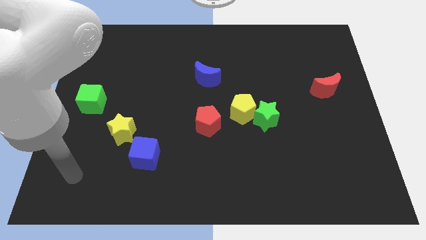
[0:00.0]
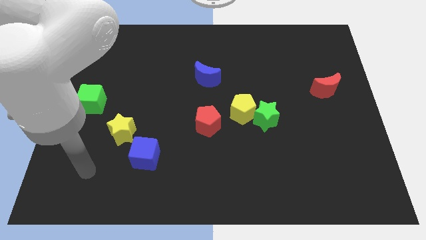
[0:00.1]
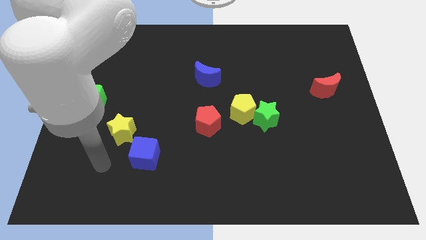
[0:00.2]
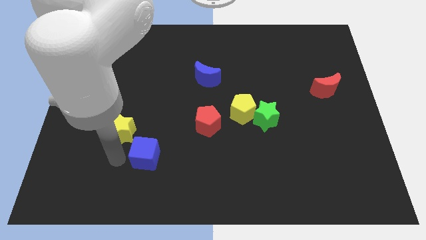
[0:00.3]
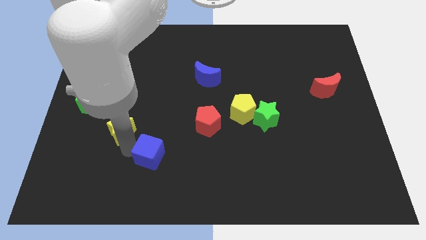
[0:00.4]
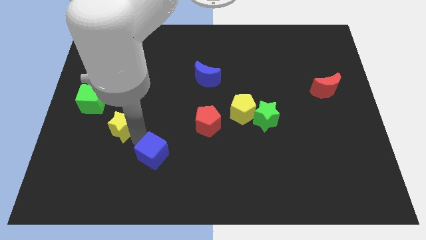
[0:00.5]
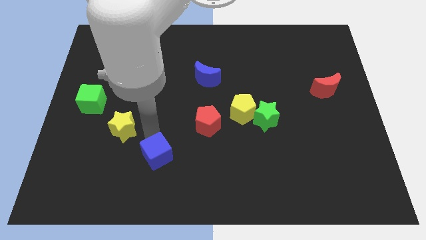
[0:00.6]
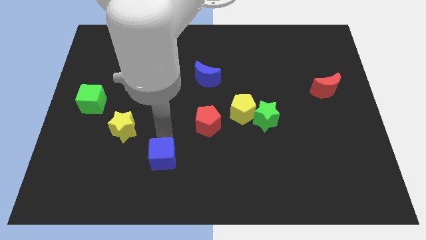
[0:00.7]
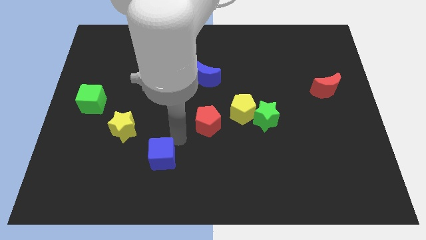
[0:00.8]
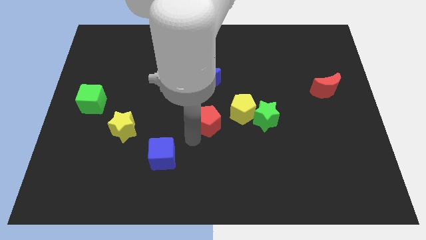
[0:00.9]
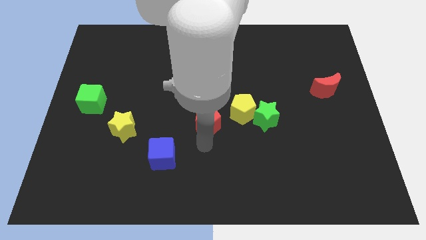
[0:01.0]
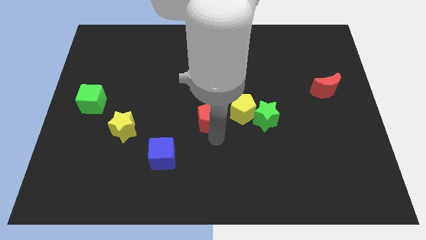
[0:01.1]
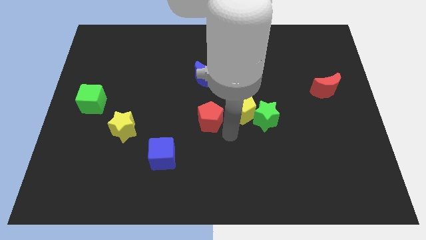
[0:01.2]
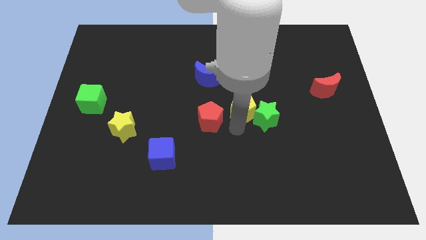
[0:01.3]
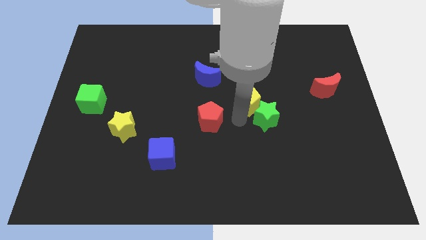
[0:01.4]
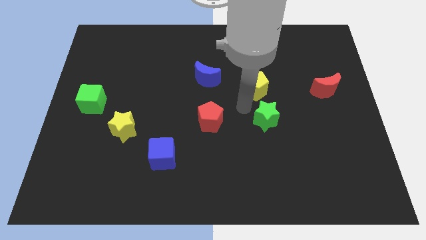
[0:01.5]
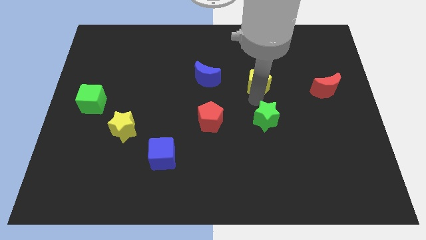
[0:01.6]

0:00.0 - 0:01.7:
separate the green star from the yellow pentagon

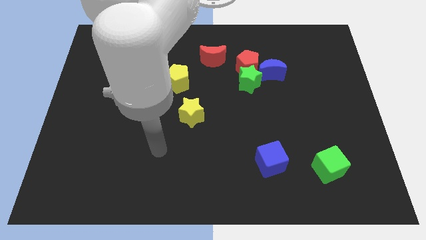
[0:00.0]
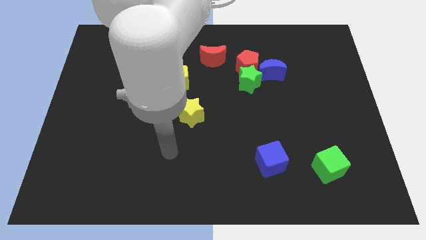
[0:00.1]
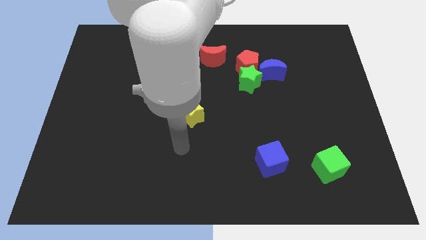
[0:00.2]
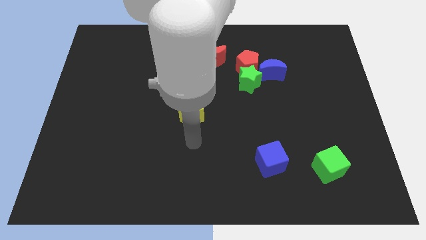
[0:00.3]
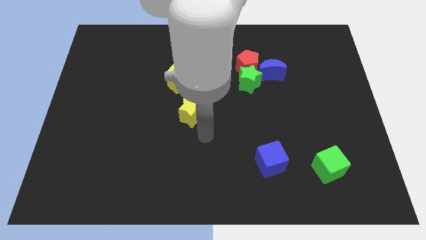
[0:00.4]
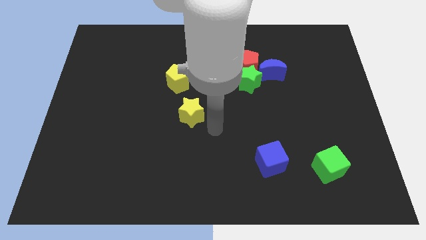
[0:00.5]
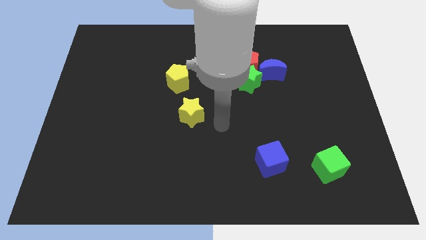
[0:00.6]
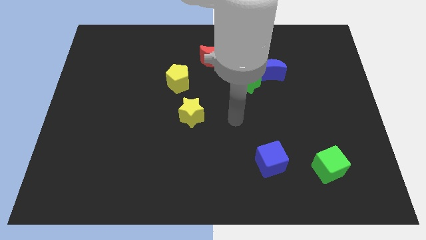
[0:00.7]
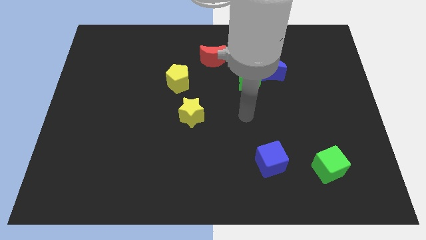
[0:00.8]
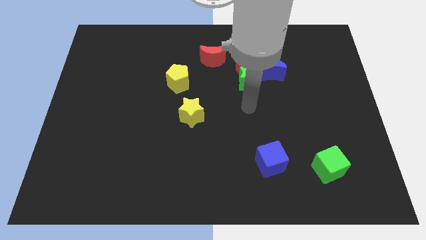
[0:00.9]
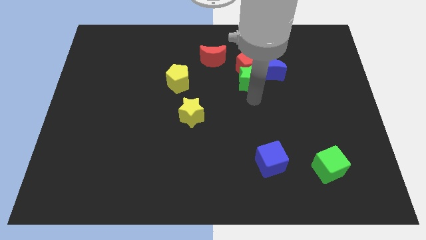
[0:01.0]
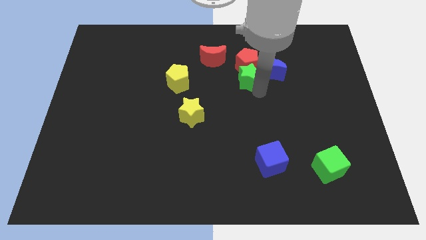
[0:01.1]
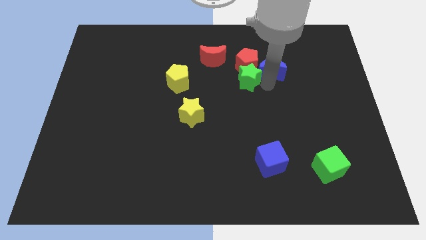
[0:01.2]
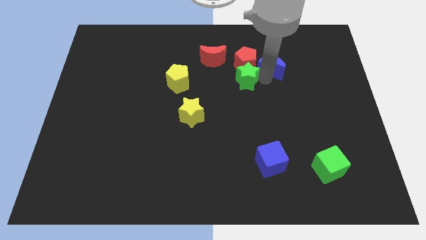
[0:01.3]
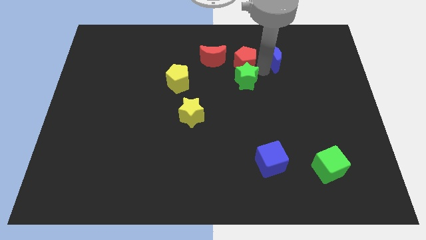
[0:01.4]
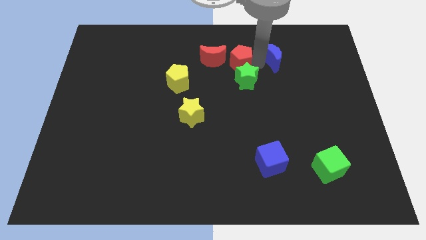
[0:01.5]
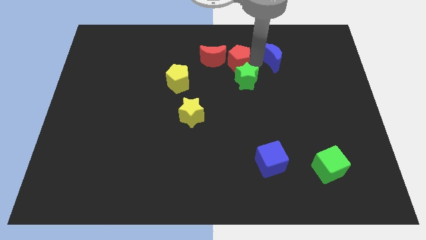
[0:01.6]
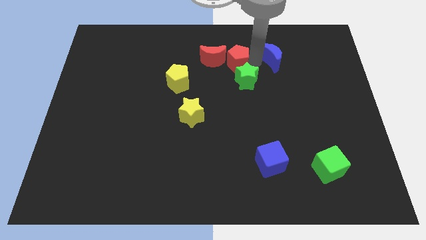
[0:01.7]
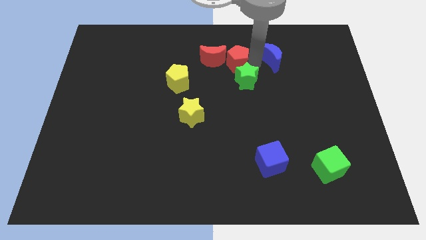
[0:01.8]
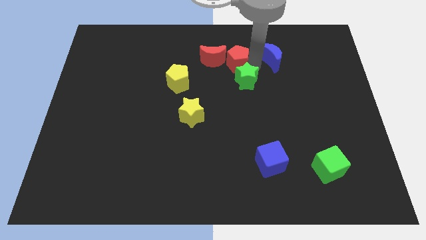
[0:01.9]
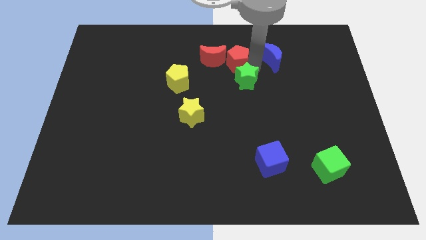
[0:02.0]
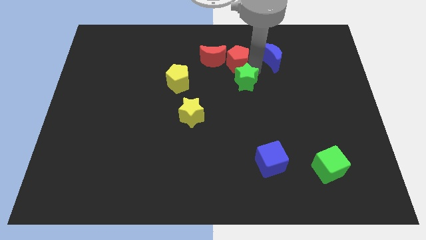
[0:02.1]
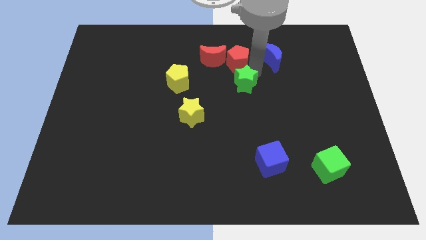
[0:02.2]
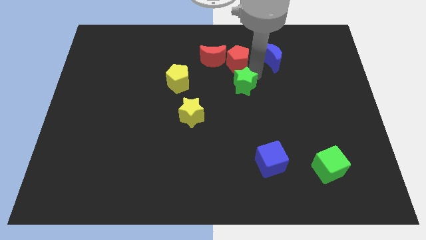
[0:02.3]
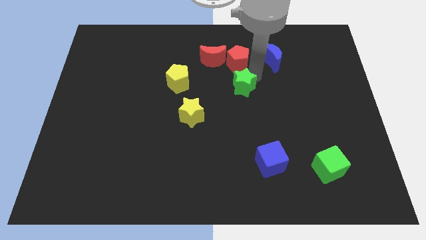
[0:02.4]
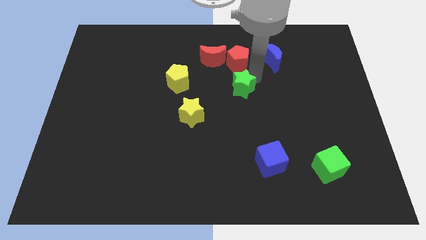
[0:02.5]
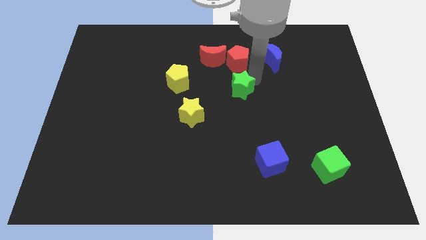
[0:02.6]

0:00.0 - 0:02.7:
move the green star away from the red pentagon and blue moon

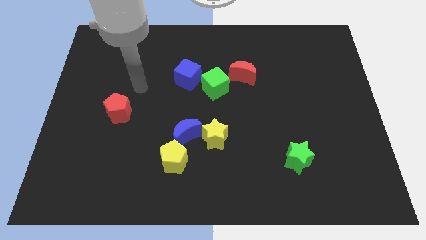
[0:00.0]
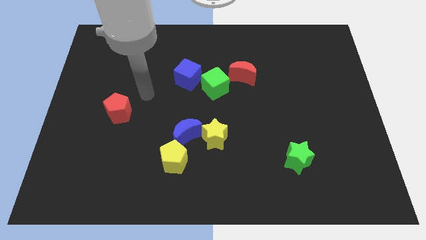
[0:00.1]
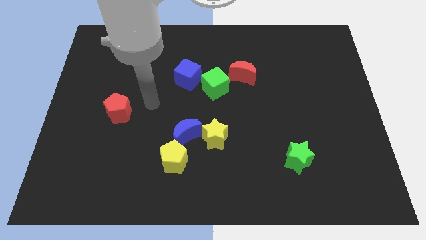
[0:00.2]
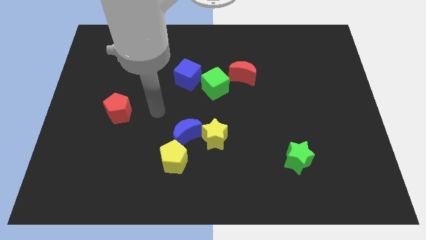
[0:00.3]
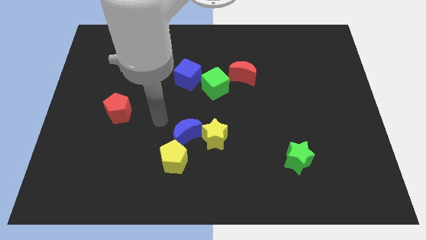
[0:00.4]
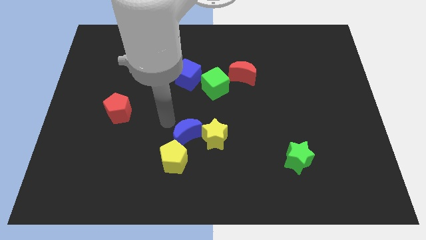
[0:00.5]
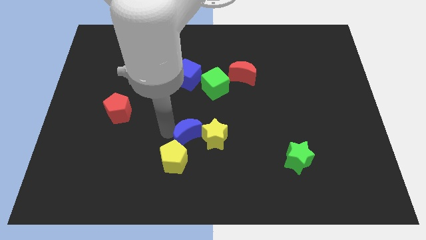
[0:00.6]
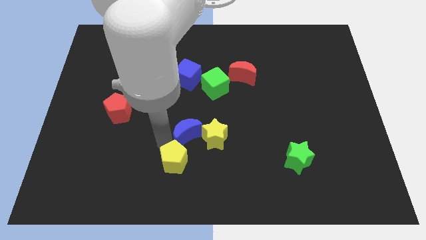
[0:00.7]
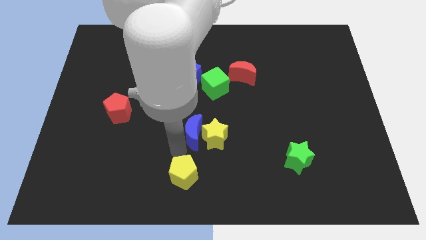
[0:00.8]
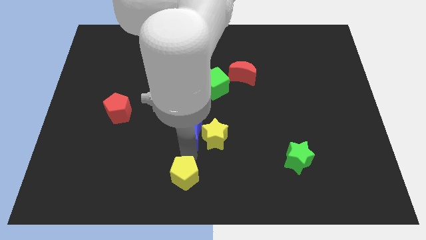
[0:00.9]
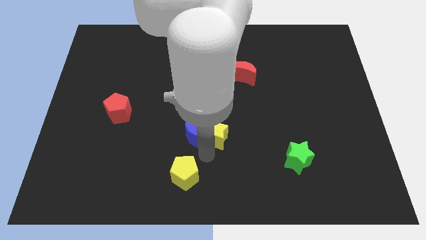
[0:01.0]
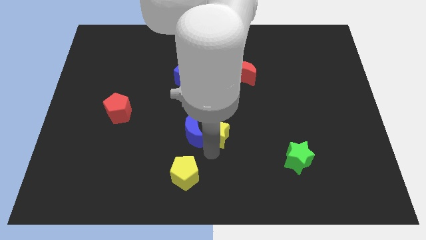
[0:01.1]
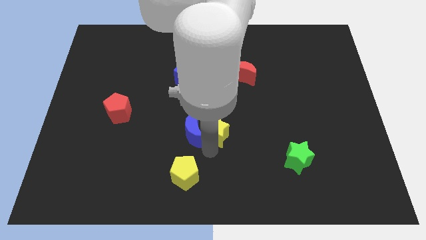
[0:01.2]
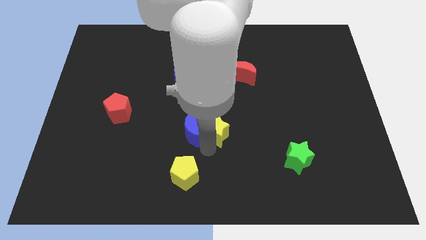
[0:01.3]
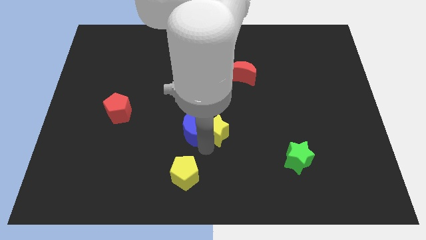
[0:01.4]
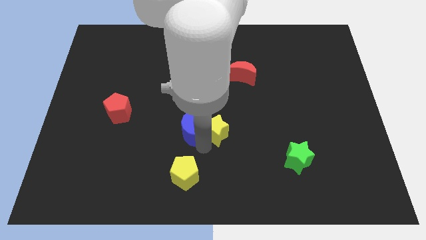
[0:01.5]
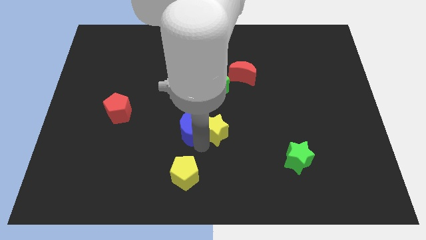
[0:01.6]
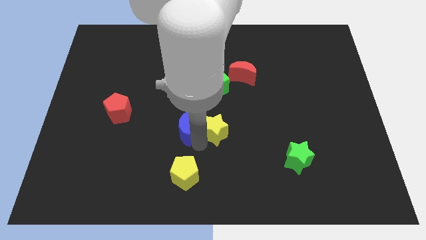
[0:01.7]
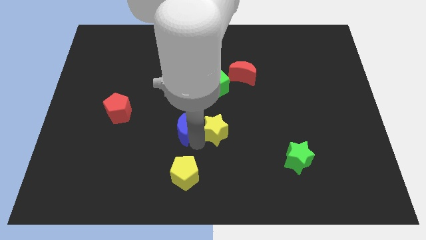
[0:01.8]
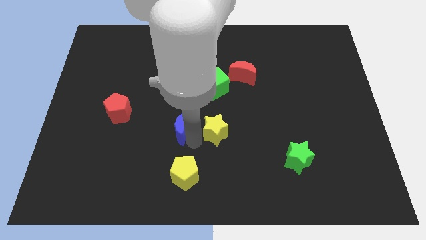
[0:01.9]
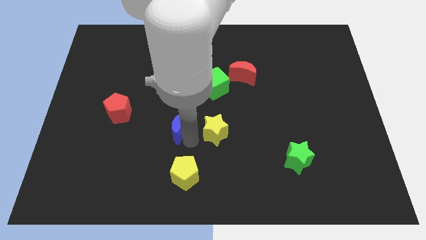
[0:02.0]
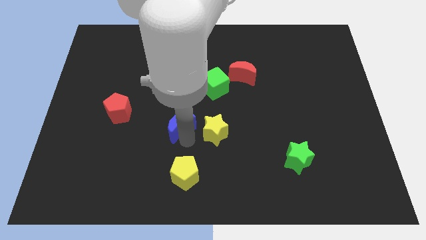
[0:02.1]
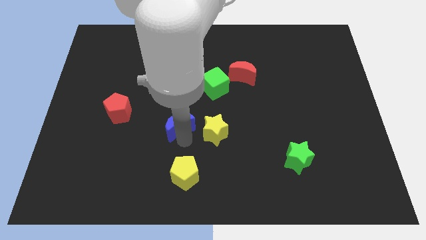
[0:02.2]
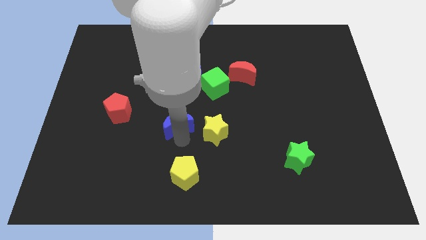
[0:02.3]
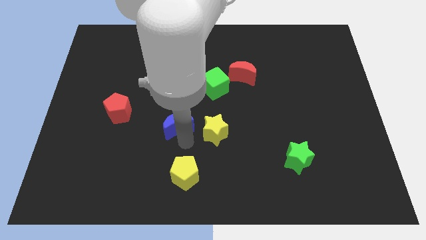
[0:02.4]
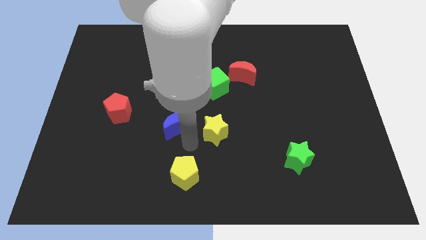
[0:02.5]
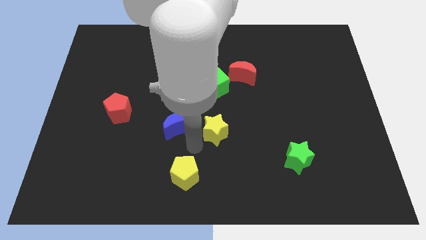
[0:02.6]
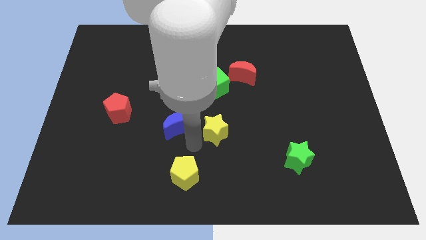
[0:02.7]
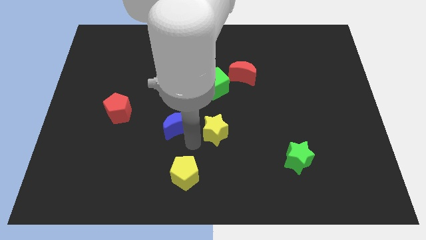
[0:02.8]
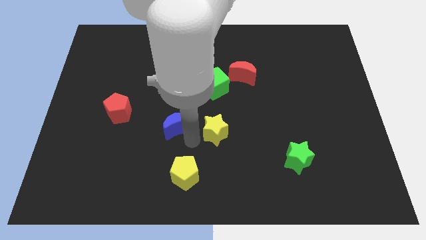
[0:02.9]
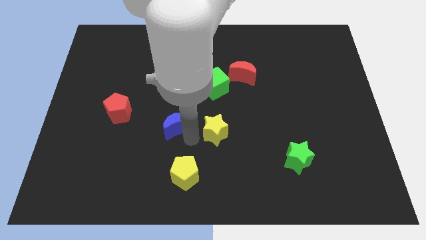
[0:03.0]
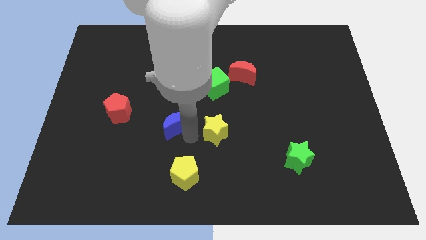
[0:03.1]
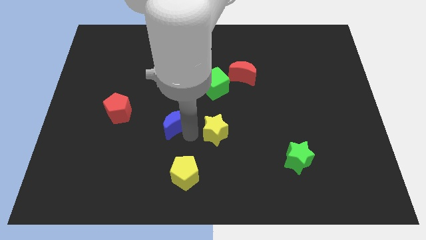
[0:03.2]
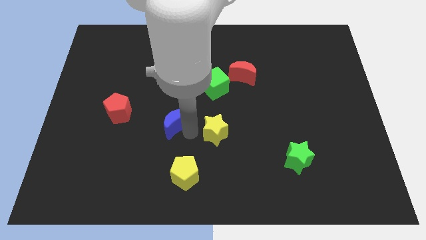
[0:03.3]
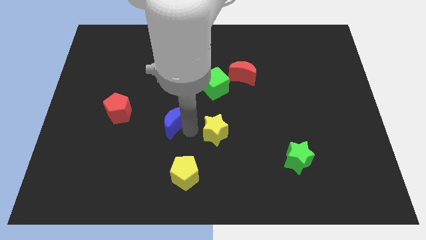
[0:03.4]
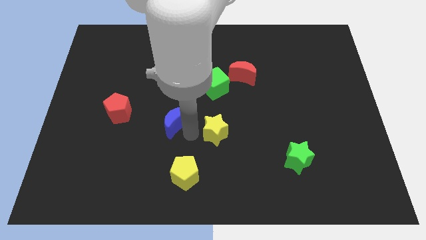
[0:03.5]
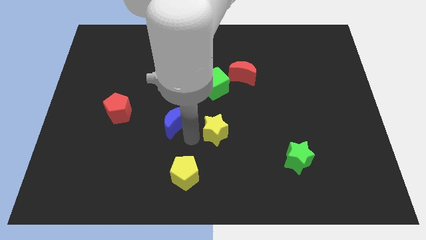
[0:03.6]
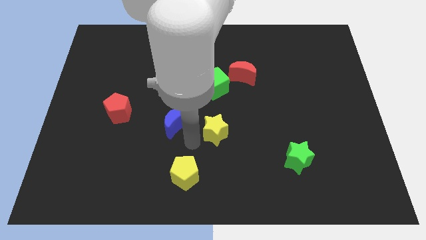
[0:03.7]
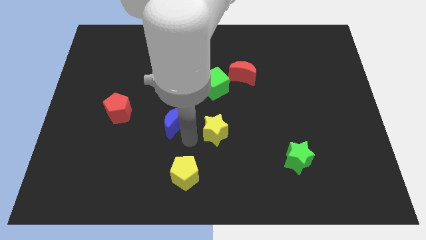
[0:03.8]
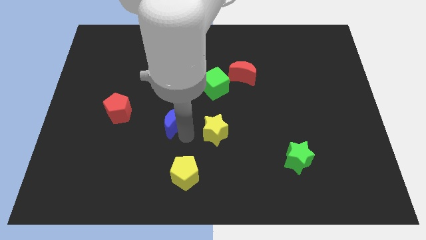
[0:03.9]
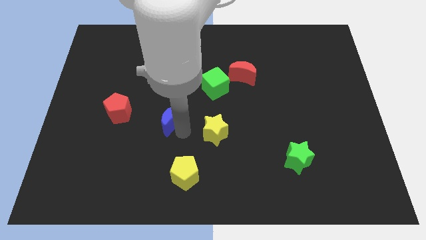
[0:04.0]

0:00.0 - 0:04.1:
pull the blue moon apart from the yellow star and yellow pentagon

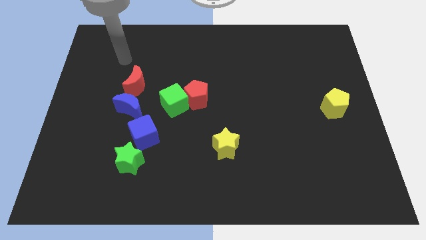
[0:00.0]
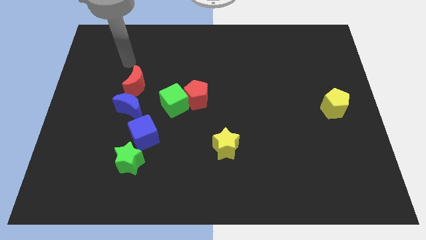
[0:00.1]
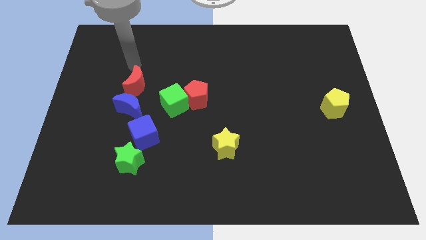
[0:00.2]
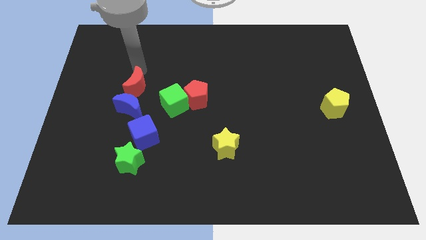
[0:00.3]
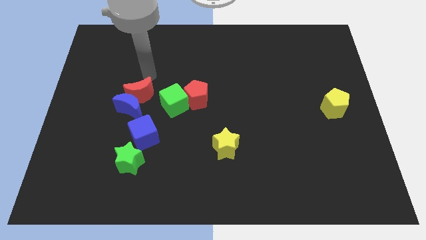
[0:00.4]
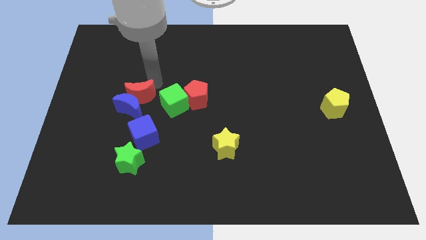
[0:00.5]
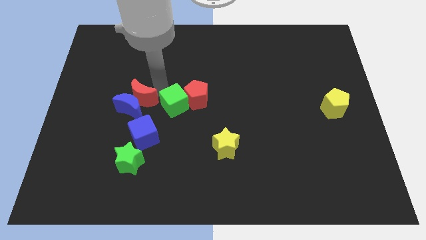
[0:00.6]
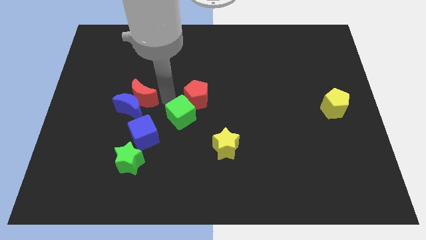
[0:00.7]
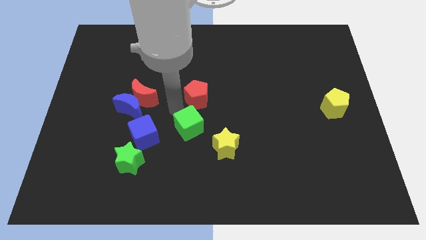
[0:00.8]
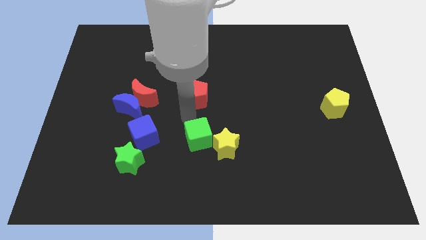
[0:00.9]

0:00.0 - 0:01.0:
move the red pentagon away from the green cube
